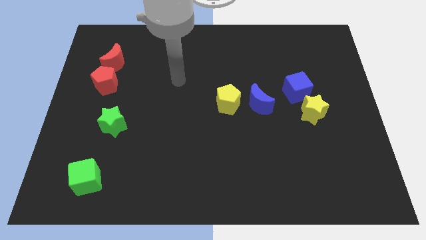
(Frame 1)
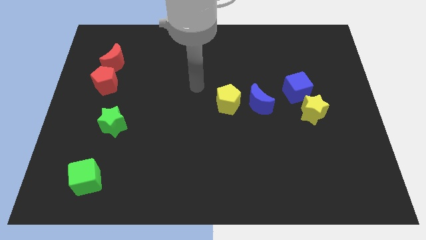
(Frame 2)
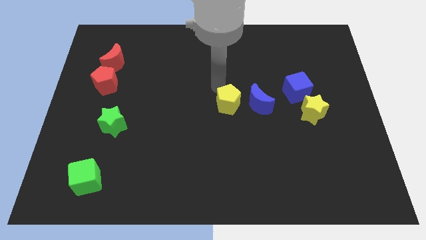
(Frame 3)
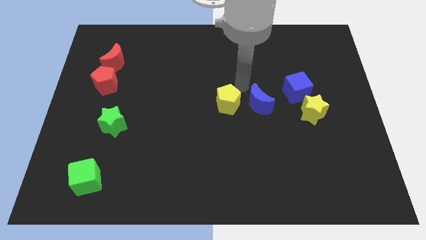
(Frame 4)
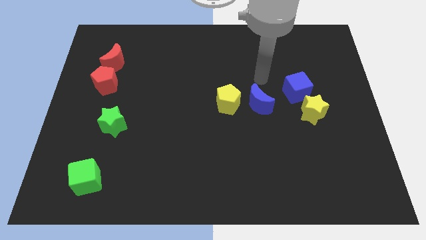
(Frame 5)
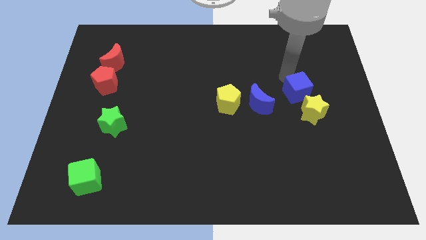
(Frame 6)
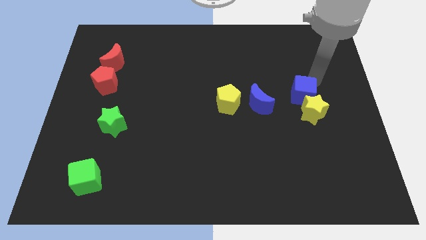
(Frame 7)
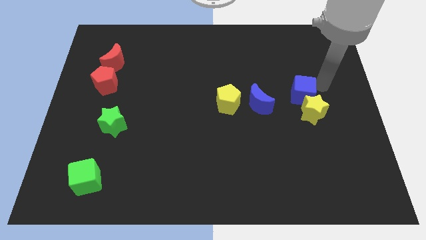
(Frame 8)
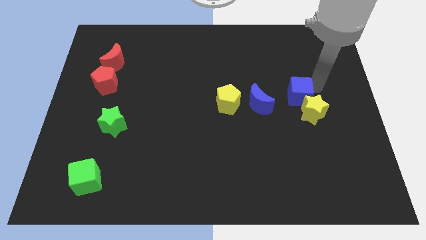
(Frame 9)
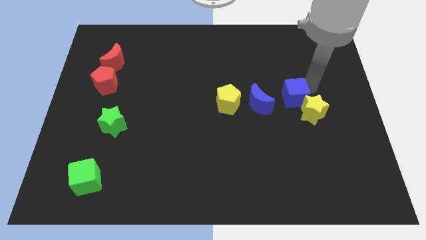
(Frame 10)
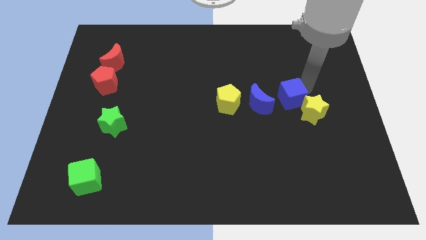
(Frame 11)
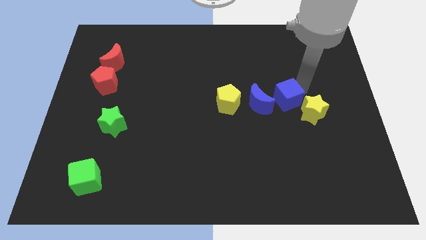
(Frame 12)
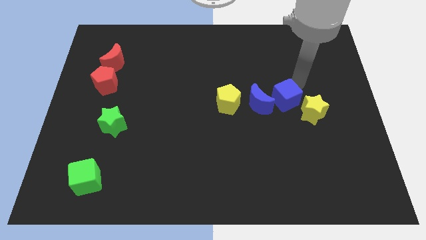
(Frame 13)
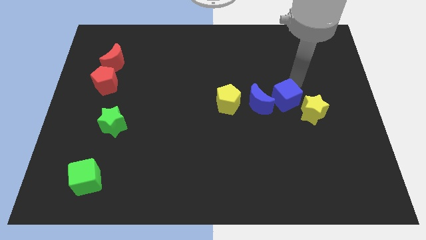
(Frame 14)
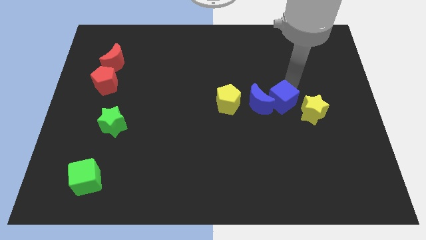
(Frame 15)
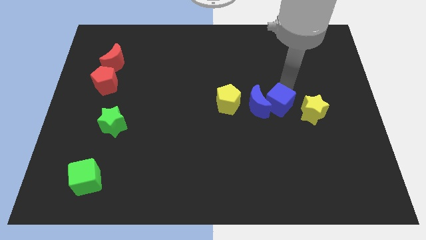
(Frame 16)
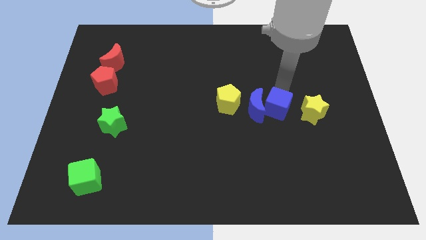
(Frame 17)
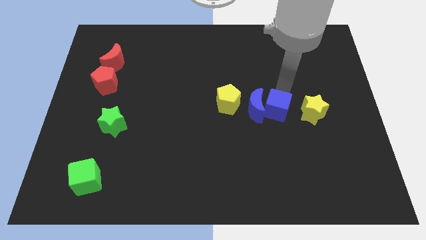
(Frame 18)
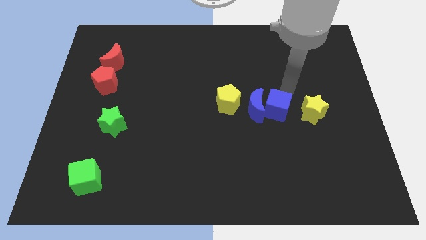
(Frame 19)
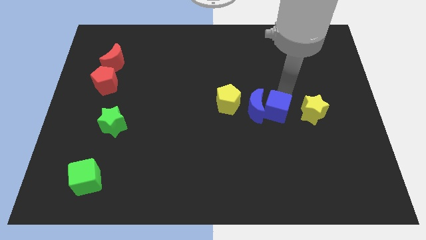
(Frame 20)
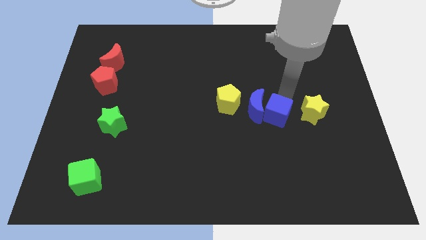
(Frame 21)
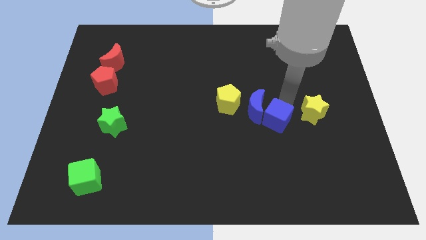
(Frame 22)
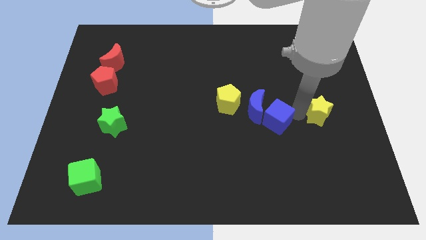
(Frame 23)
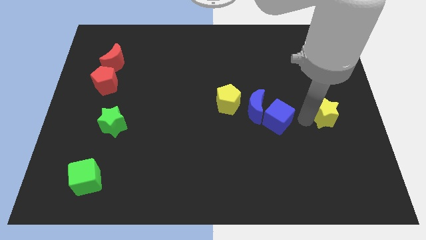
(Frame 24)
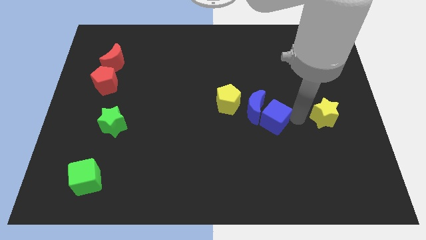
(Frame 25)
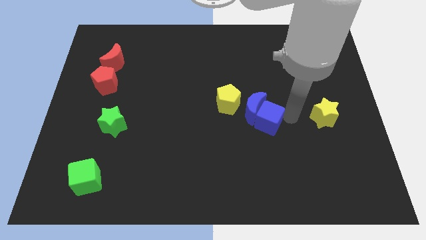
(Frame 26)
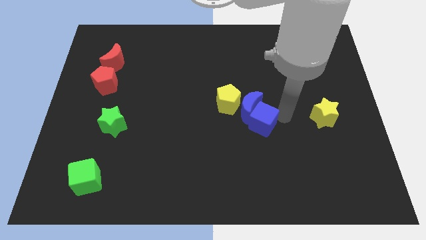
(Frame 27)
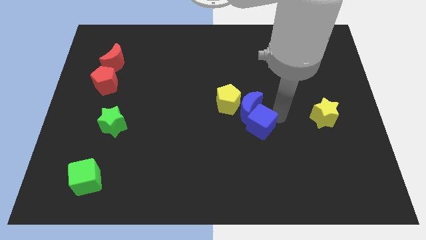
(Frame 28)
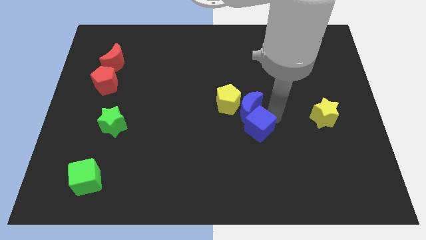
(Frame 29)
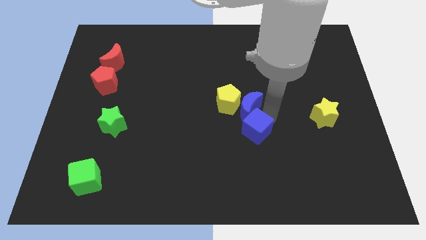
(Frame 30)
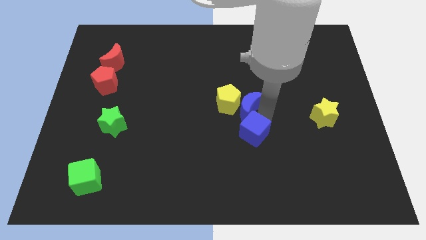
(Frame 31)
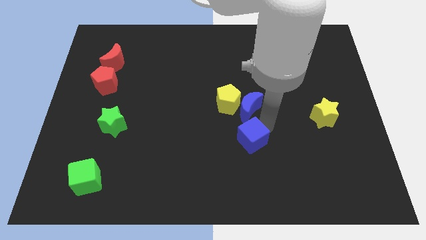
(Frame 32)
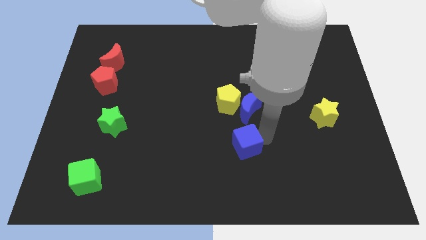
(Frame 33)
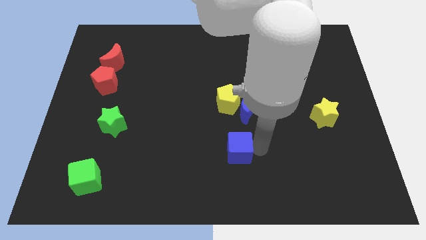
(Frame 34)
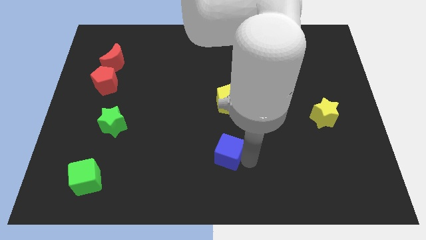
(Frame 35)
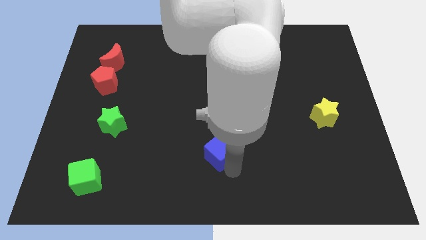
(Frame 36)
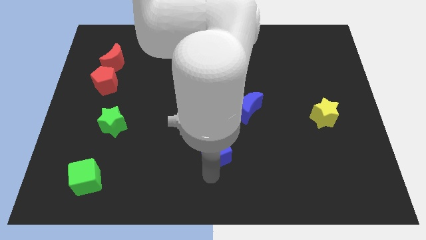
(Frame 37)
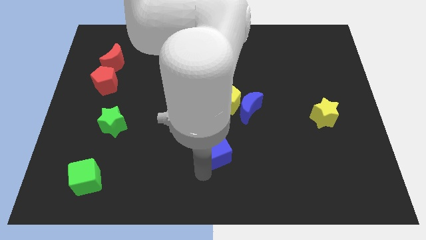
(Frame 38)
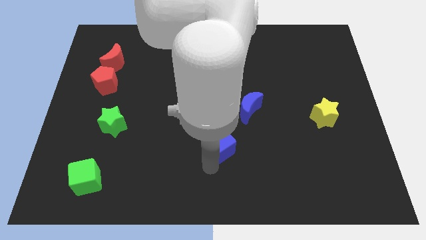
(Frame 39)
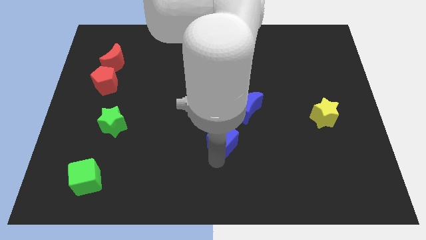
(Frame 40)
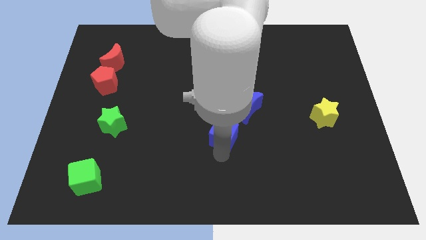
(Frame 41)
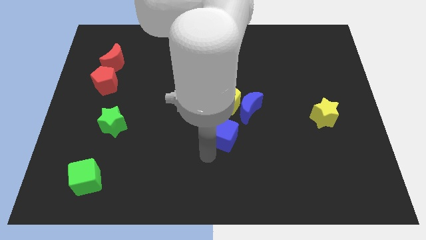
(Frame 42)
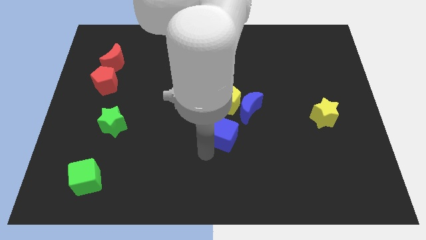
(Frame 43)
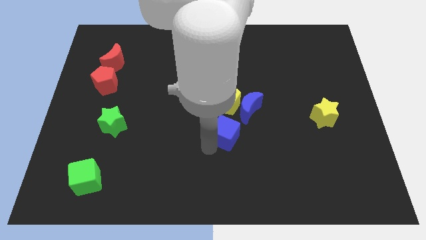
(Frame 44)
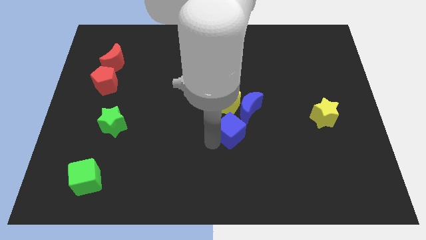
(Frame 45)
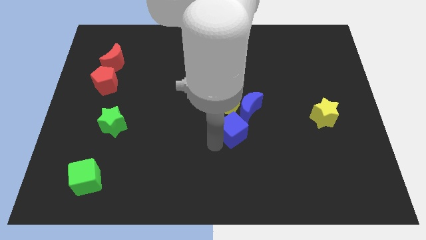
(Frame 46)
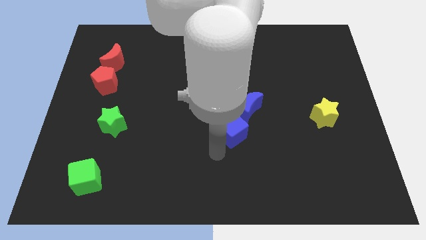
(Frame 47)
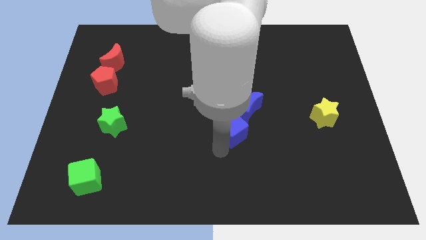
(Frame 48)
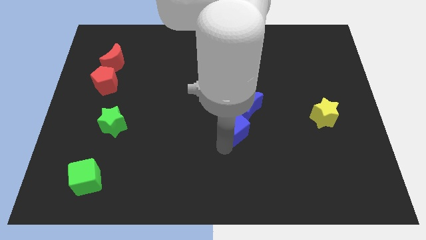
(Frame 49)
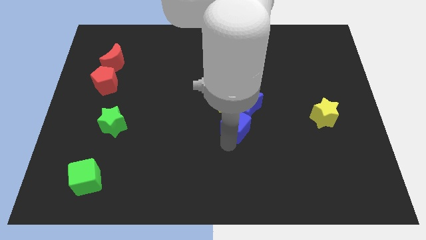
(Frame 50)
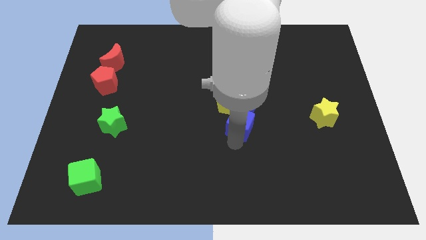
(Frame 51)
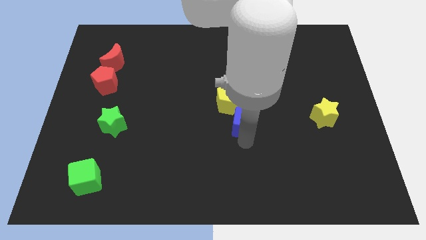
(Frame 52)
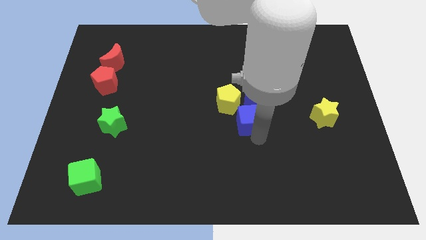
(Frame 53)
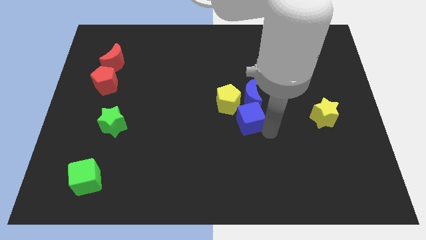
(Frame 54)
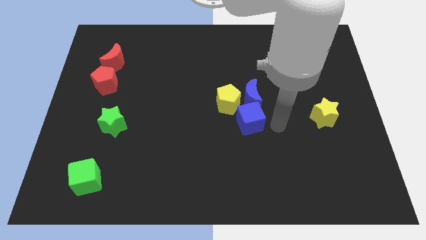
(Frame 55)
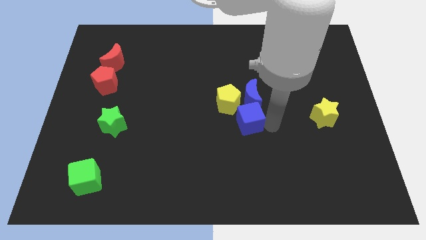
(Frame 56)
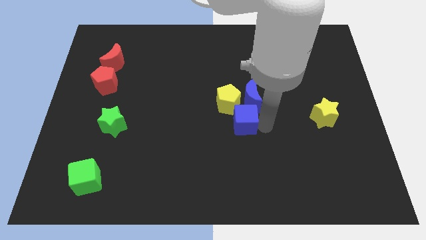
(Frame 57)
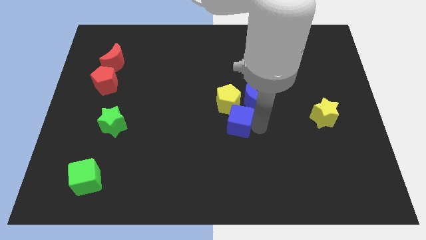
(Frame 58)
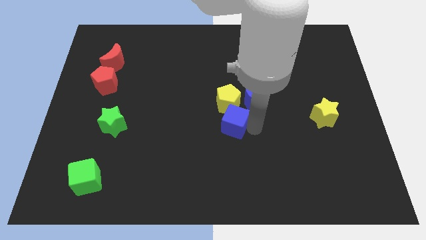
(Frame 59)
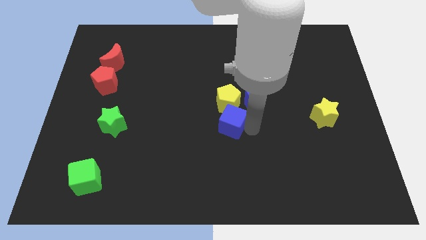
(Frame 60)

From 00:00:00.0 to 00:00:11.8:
push the blue cube to the bottom left side of the yellow pentagon

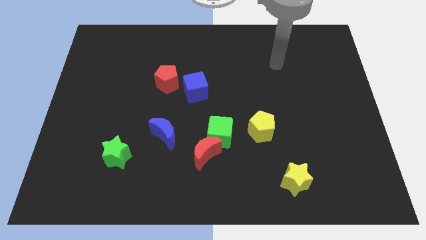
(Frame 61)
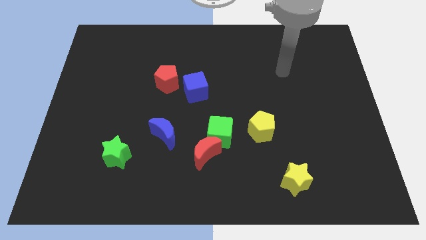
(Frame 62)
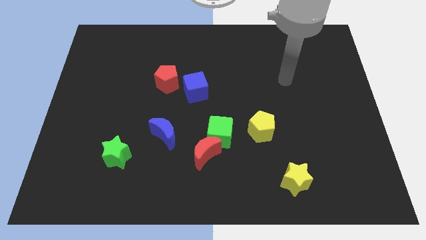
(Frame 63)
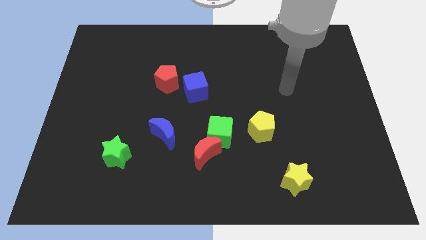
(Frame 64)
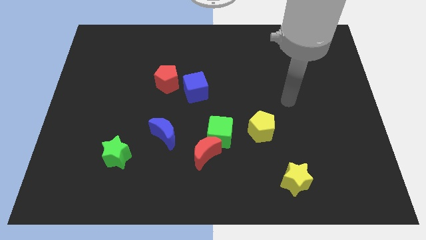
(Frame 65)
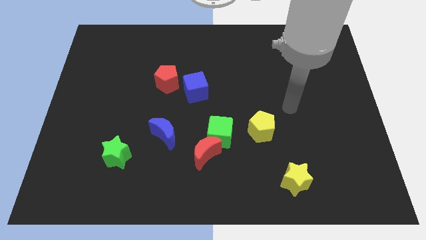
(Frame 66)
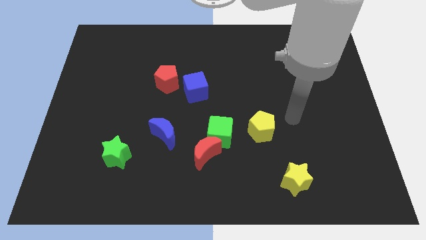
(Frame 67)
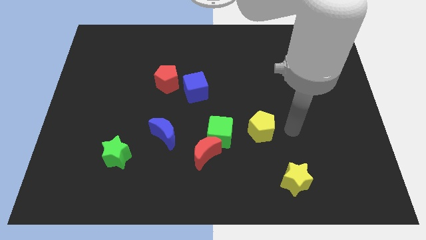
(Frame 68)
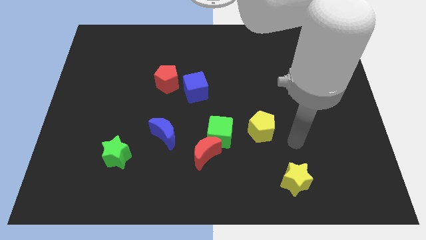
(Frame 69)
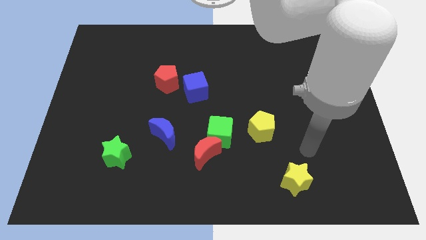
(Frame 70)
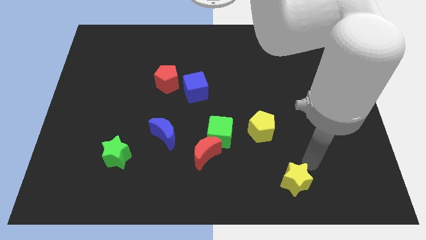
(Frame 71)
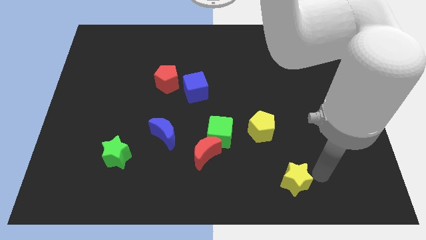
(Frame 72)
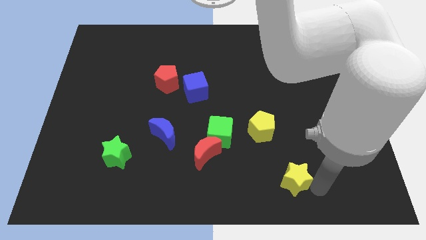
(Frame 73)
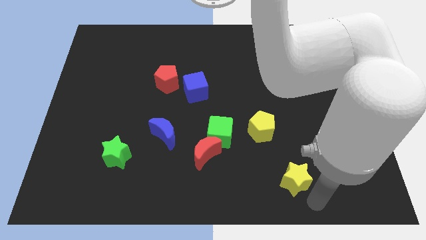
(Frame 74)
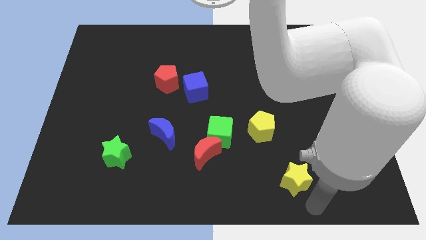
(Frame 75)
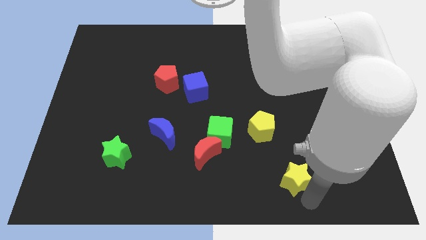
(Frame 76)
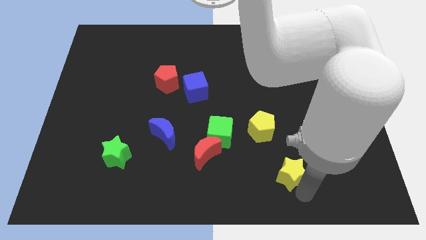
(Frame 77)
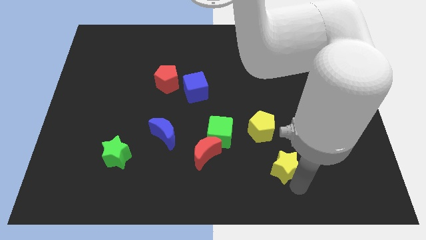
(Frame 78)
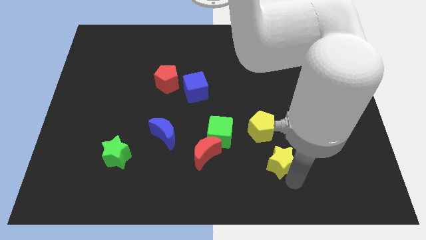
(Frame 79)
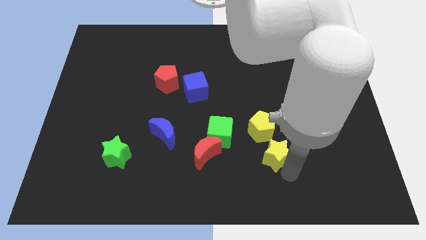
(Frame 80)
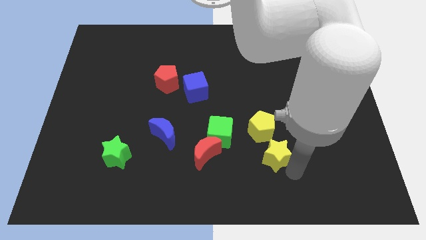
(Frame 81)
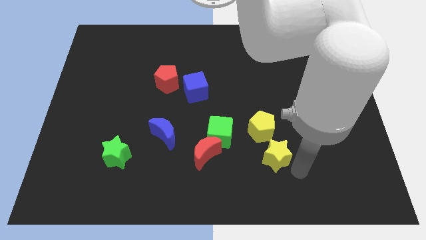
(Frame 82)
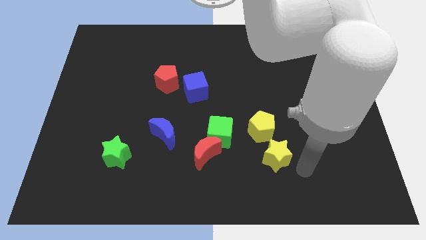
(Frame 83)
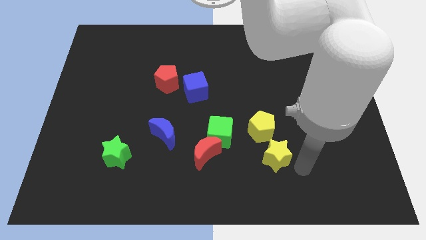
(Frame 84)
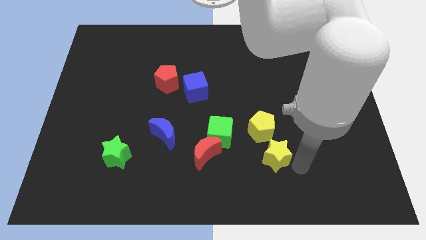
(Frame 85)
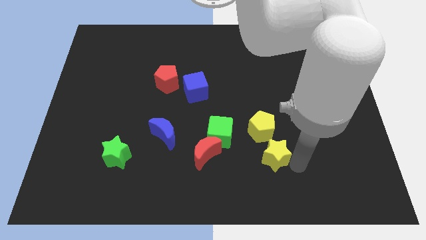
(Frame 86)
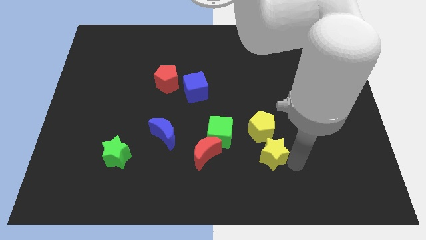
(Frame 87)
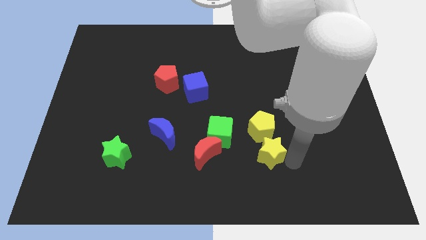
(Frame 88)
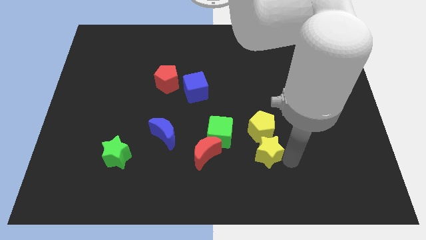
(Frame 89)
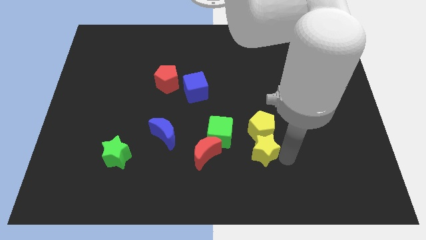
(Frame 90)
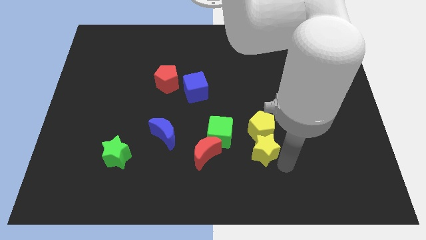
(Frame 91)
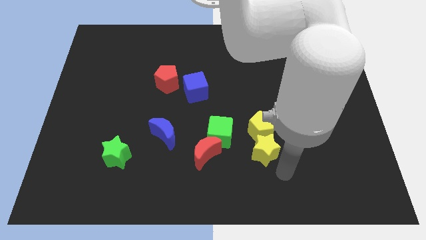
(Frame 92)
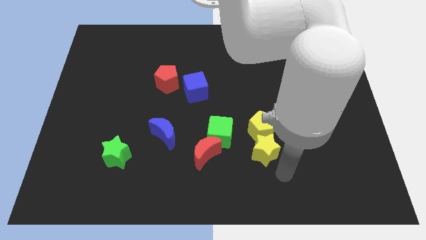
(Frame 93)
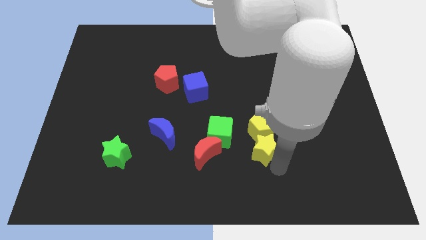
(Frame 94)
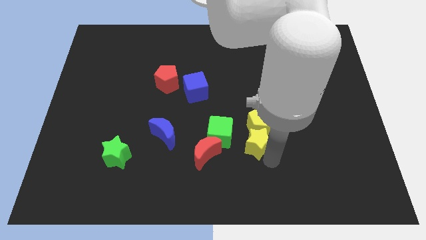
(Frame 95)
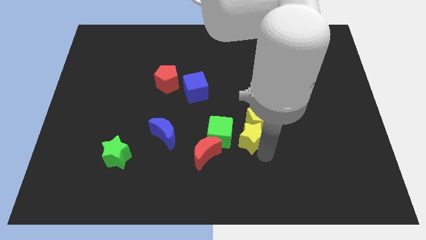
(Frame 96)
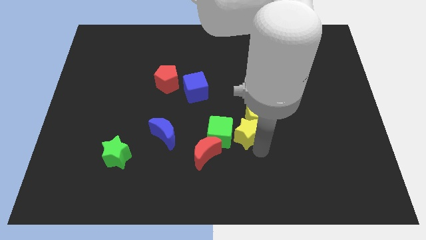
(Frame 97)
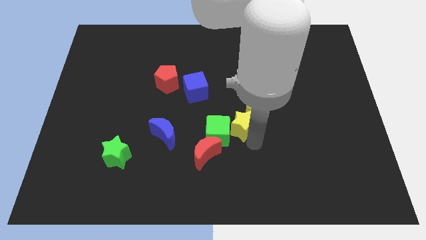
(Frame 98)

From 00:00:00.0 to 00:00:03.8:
put the yellow star to the left side of the yellow pentagon
